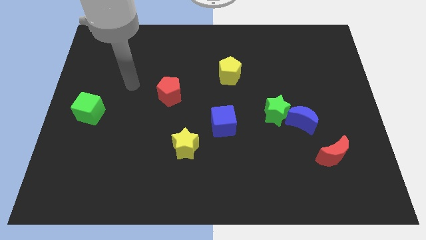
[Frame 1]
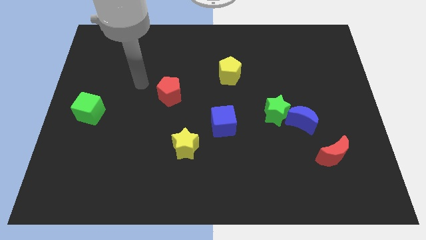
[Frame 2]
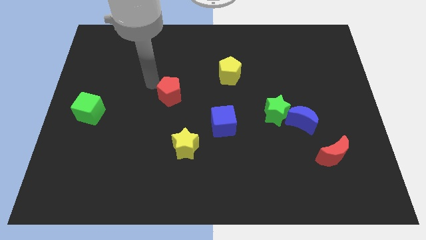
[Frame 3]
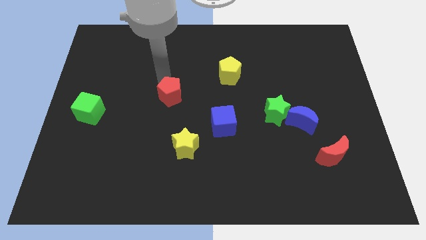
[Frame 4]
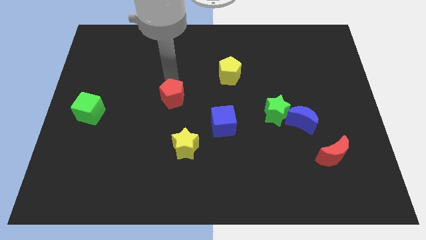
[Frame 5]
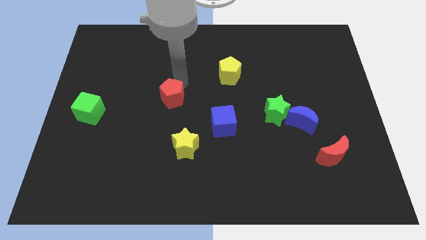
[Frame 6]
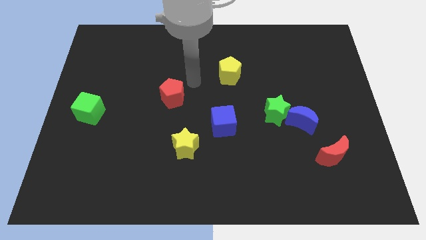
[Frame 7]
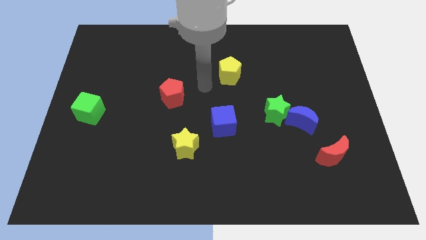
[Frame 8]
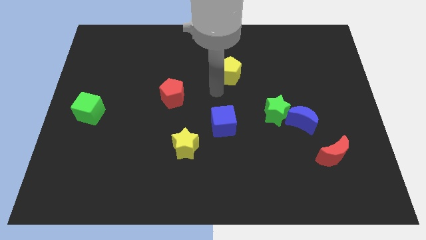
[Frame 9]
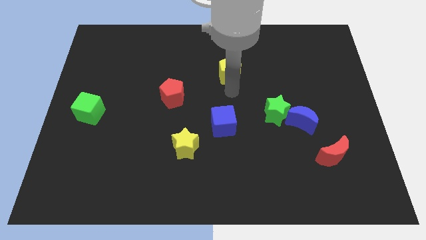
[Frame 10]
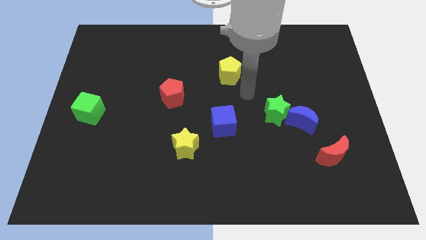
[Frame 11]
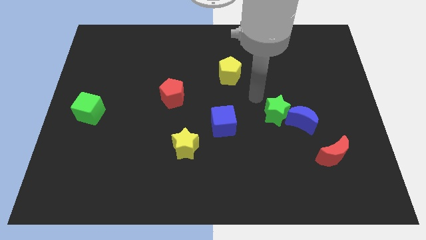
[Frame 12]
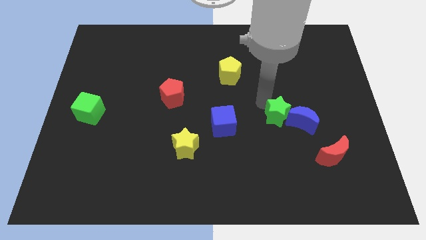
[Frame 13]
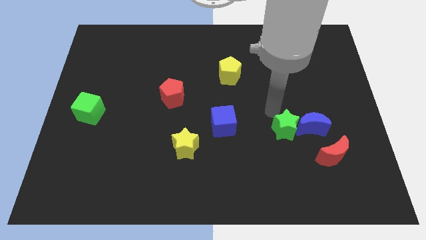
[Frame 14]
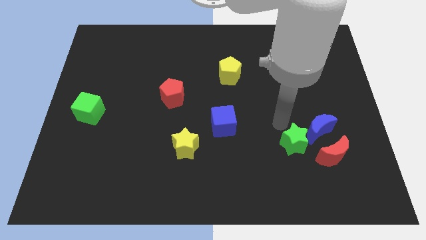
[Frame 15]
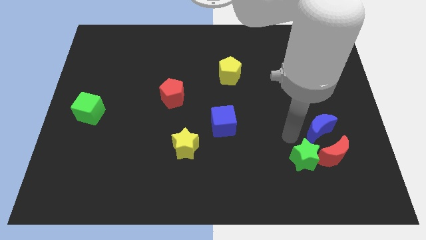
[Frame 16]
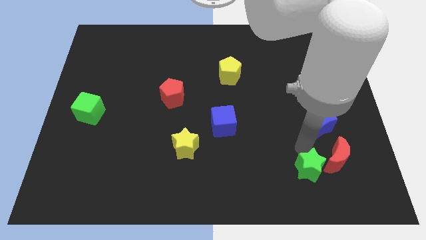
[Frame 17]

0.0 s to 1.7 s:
move the blue moon away from the green star

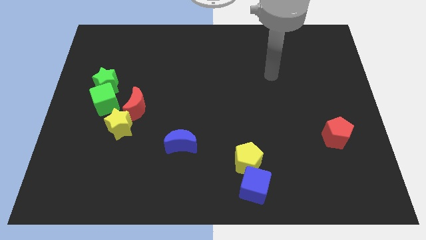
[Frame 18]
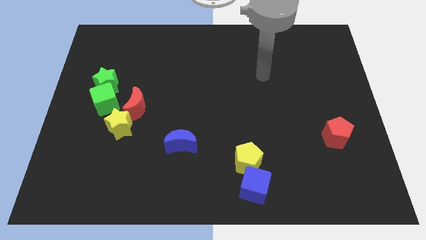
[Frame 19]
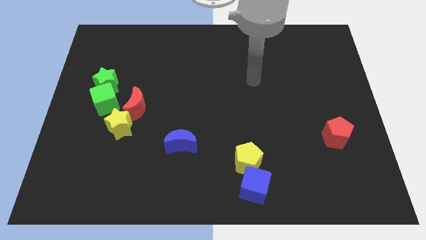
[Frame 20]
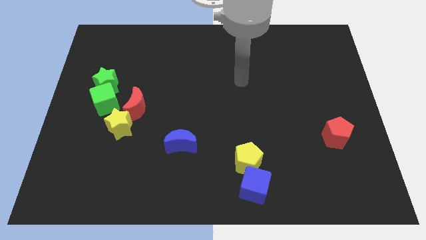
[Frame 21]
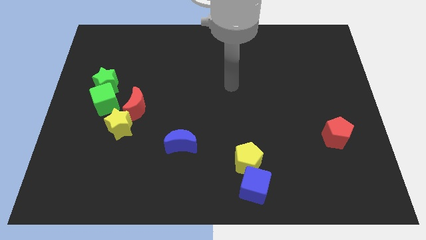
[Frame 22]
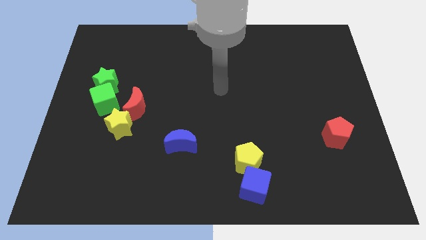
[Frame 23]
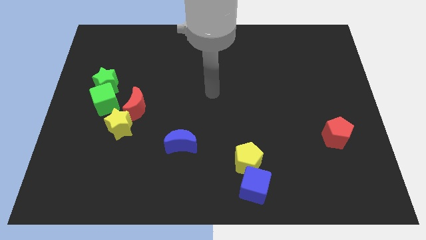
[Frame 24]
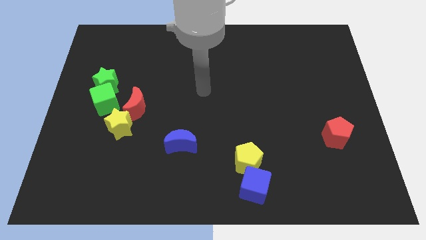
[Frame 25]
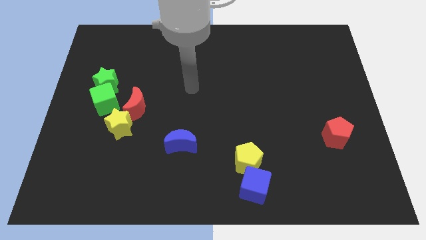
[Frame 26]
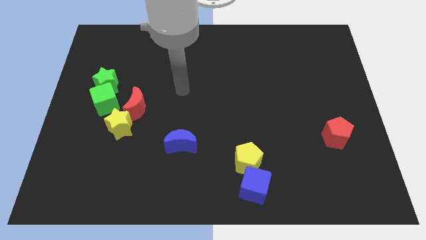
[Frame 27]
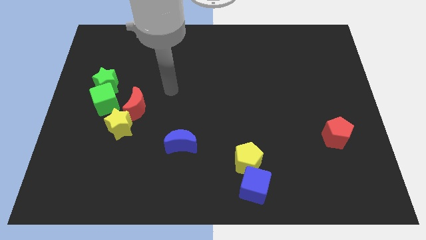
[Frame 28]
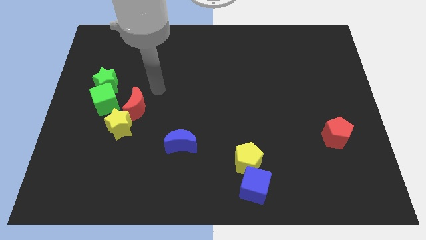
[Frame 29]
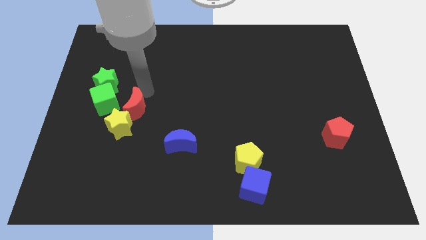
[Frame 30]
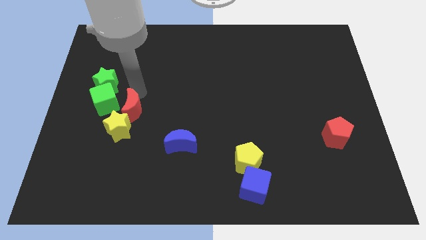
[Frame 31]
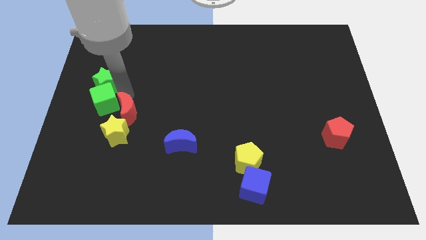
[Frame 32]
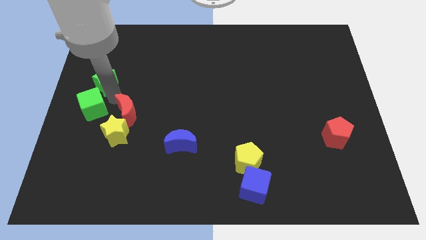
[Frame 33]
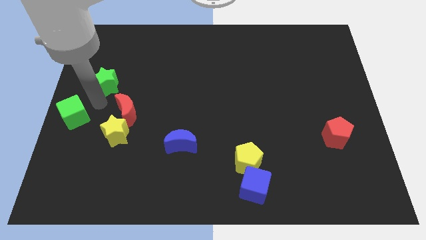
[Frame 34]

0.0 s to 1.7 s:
pull the green star apart from the green cube

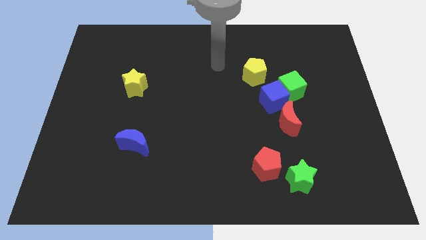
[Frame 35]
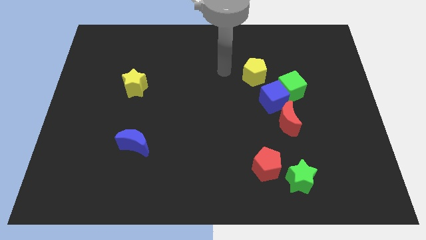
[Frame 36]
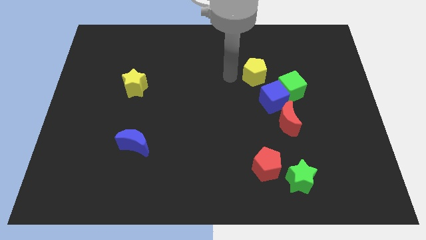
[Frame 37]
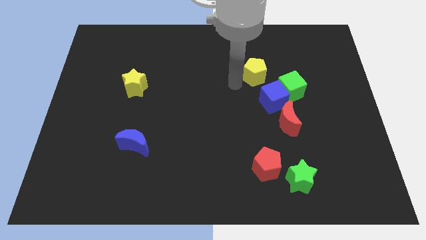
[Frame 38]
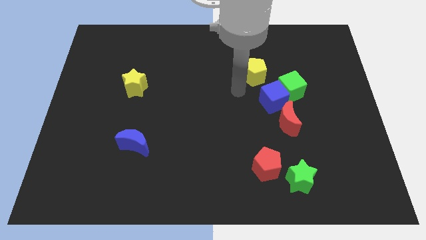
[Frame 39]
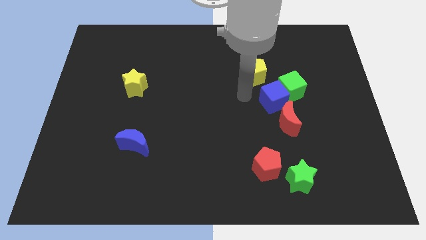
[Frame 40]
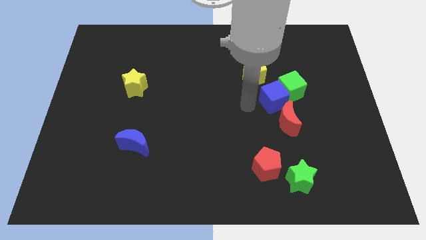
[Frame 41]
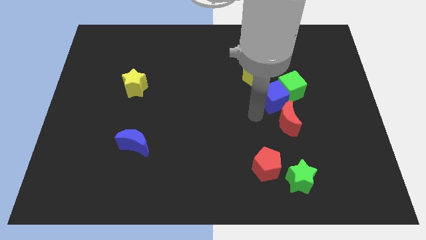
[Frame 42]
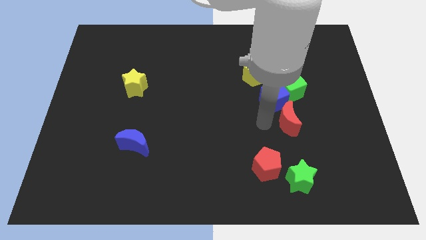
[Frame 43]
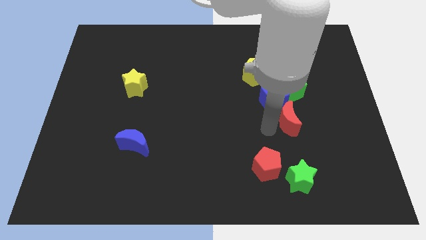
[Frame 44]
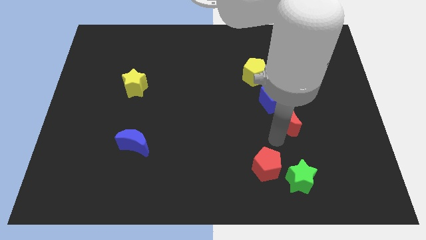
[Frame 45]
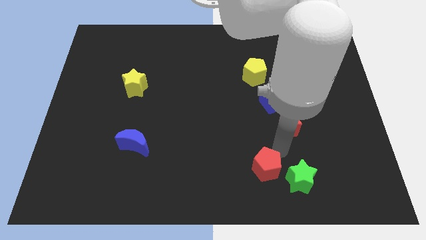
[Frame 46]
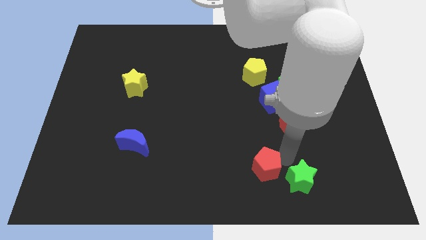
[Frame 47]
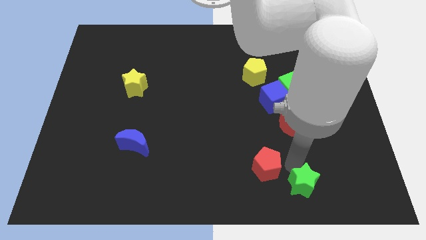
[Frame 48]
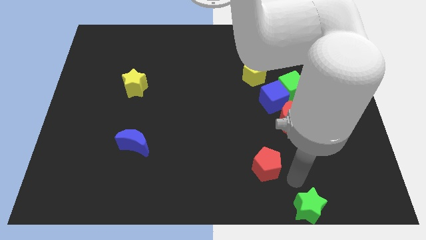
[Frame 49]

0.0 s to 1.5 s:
move the red pentagon away from the green star

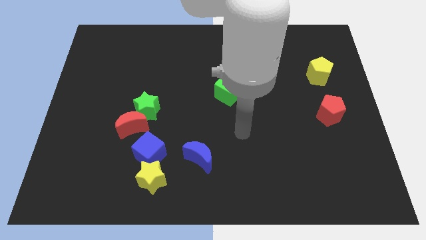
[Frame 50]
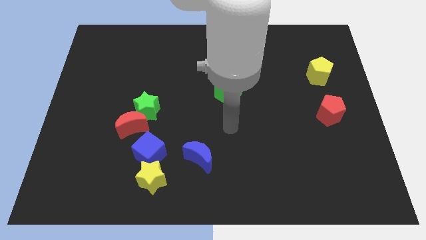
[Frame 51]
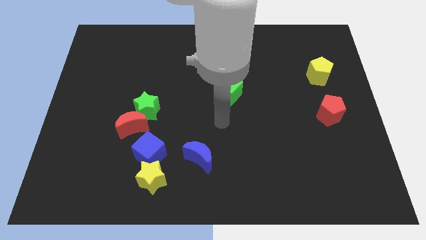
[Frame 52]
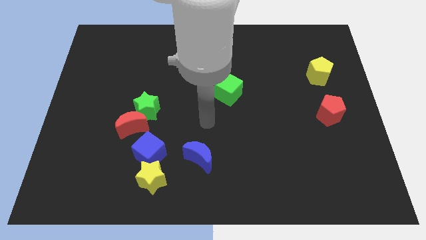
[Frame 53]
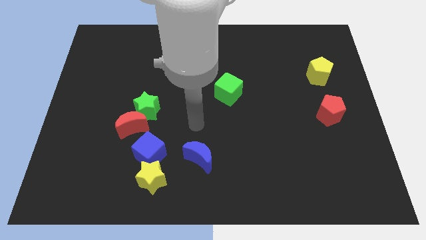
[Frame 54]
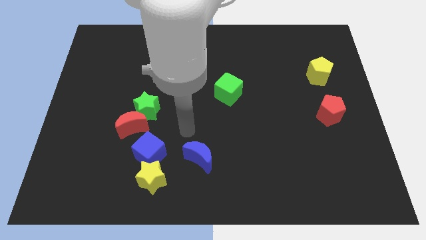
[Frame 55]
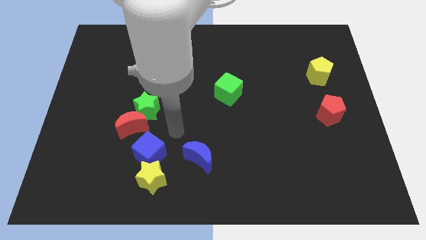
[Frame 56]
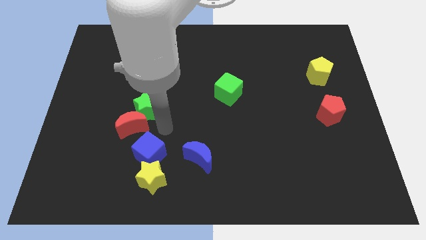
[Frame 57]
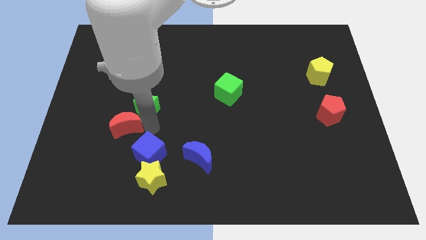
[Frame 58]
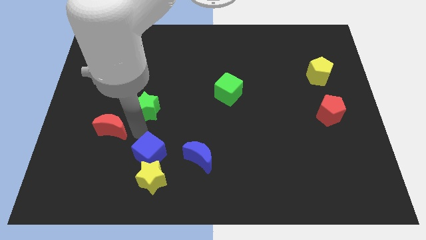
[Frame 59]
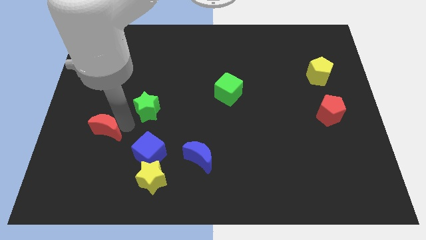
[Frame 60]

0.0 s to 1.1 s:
separate the green star from the red moon

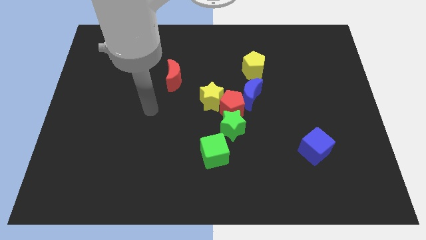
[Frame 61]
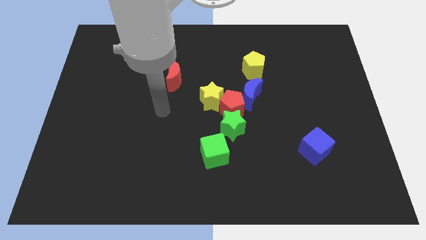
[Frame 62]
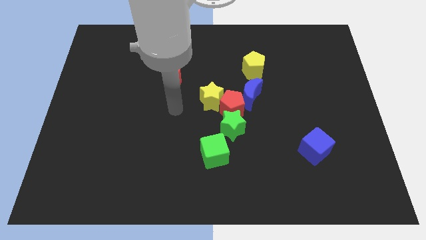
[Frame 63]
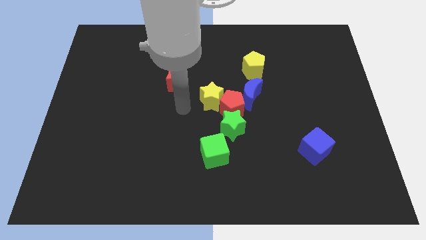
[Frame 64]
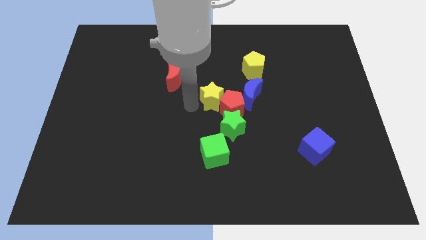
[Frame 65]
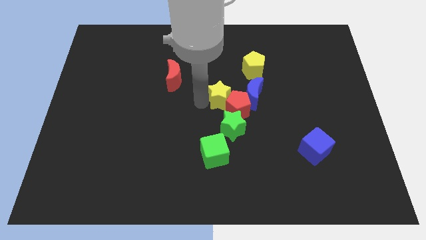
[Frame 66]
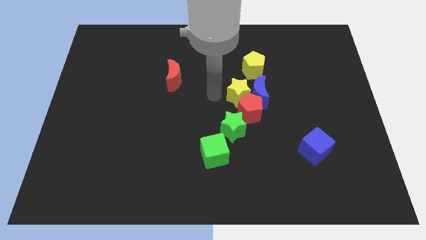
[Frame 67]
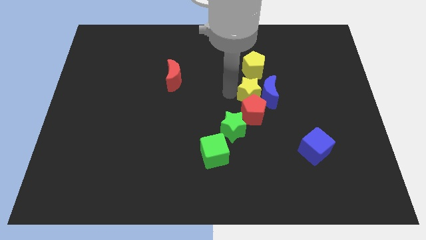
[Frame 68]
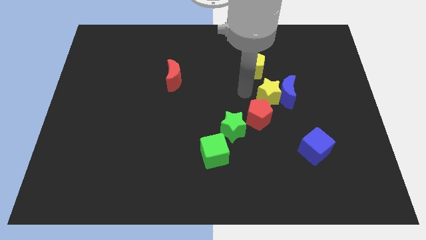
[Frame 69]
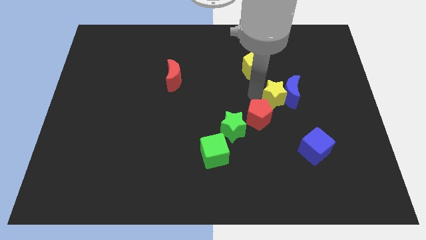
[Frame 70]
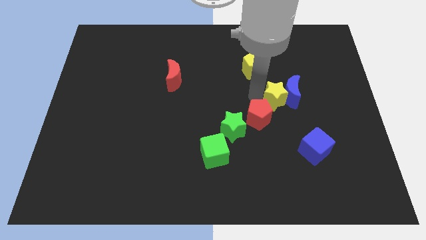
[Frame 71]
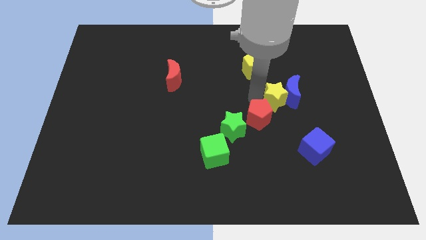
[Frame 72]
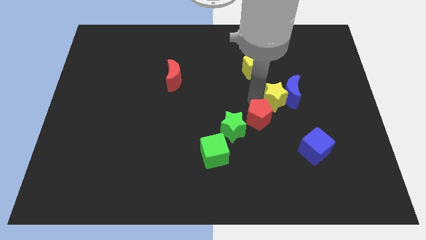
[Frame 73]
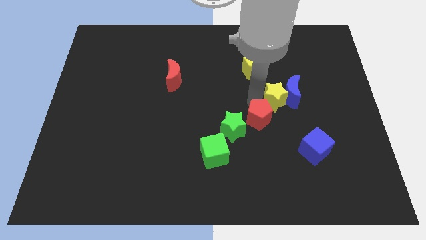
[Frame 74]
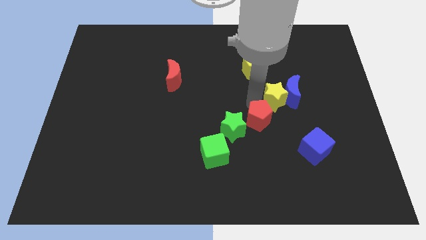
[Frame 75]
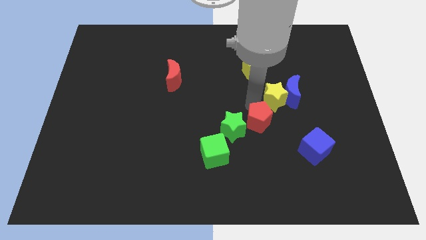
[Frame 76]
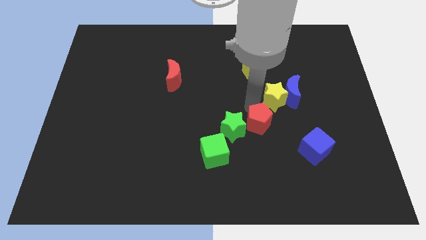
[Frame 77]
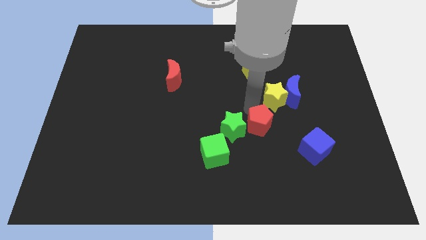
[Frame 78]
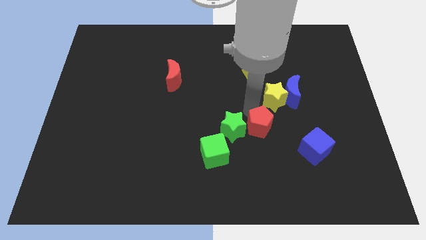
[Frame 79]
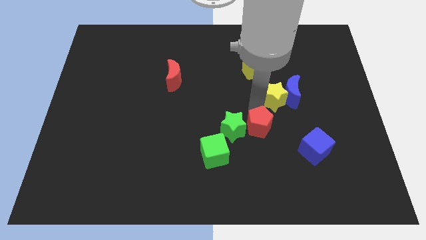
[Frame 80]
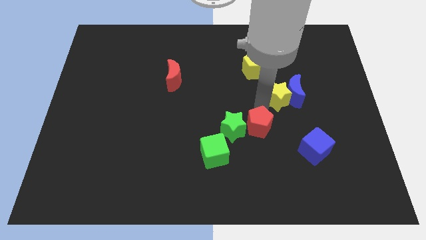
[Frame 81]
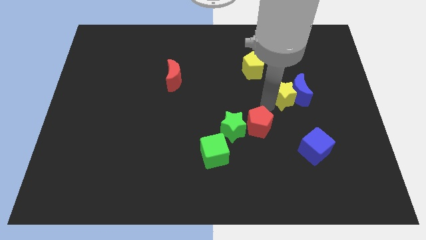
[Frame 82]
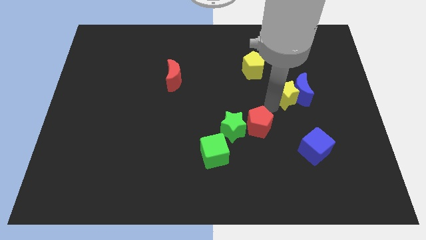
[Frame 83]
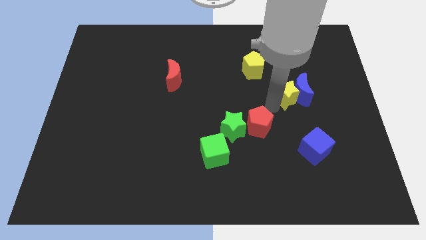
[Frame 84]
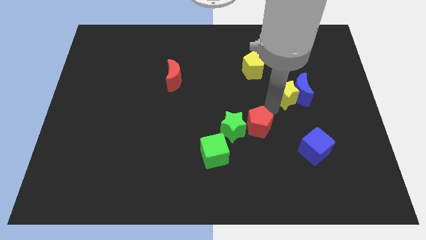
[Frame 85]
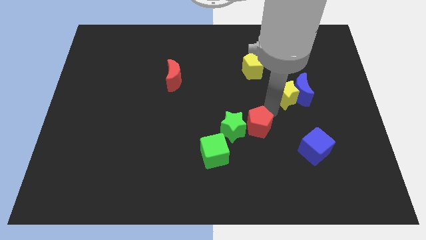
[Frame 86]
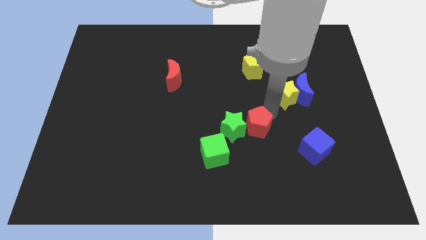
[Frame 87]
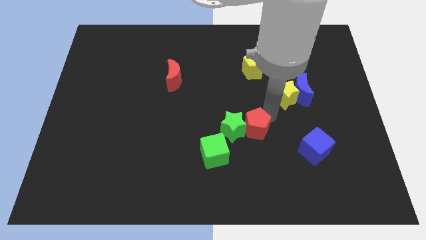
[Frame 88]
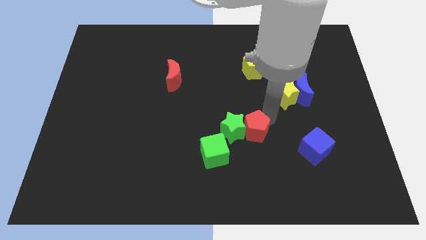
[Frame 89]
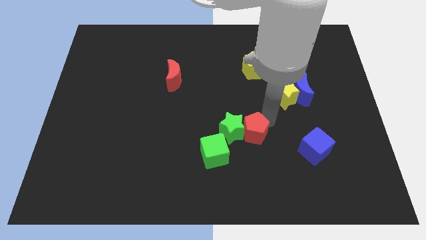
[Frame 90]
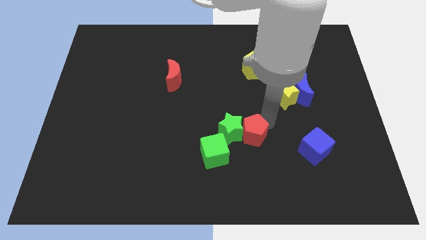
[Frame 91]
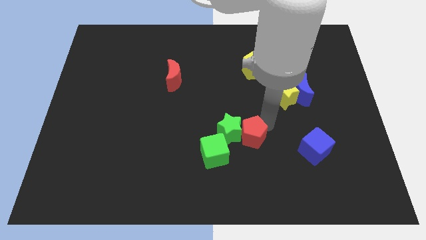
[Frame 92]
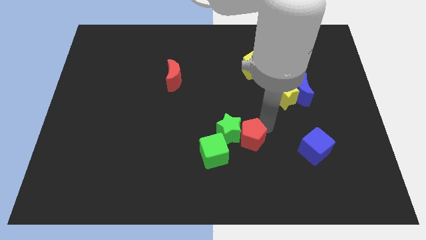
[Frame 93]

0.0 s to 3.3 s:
separate the red pentagon from the group
